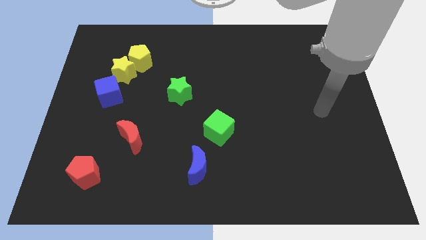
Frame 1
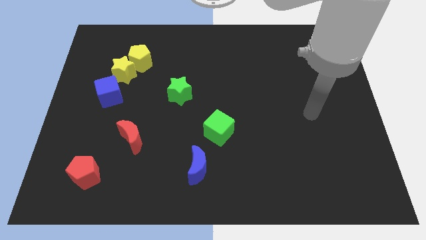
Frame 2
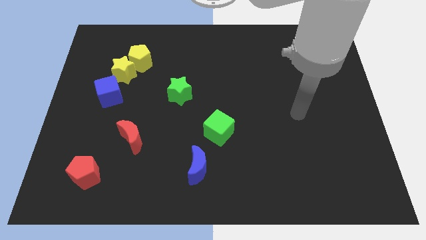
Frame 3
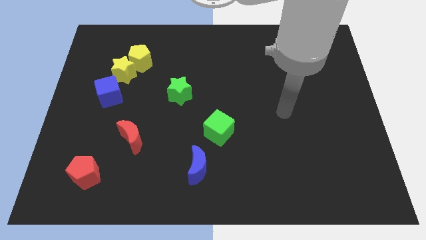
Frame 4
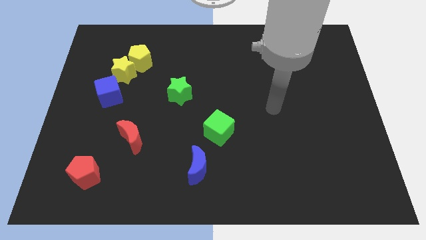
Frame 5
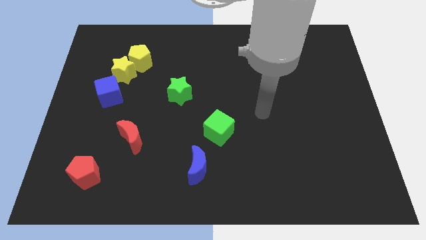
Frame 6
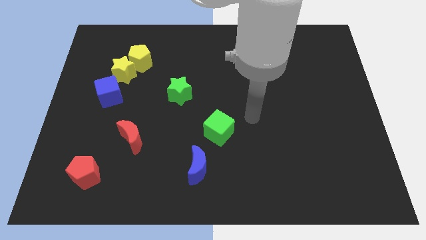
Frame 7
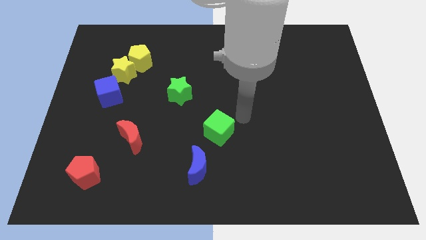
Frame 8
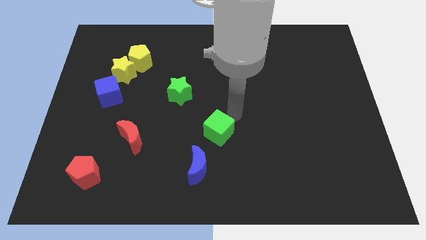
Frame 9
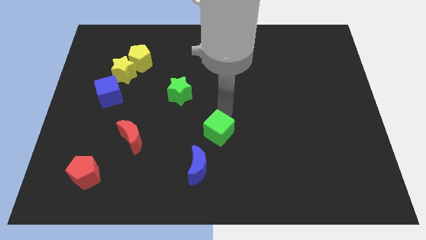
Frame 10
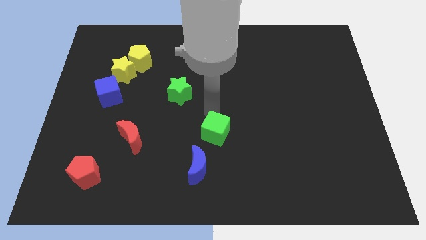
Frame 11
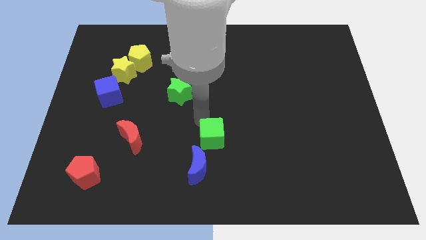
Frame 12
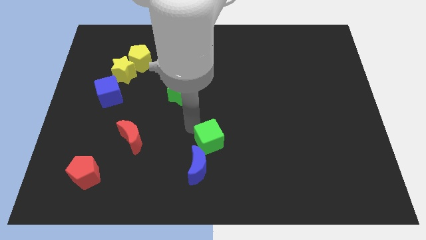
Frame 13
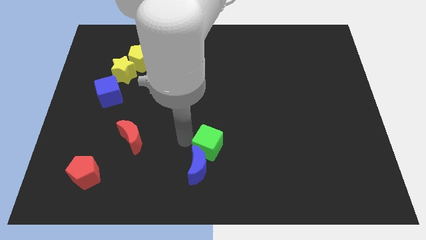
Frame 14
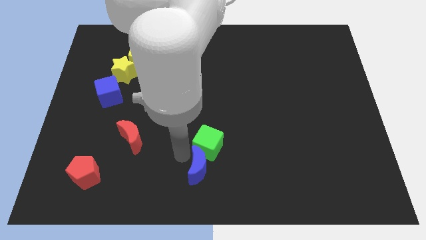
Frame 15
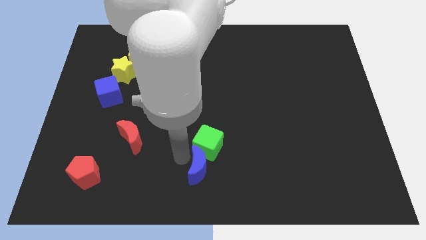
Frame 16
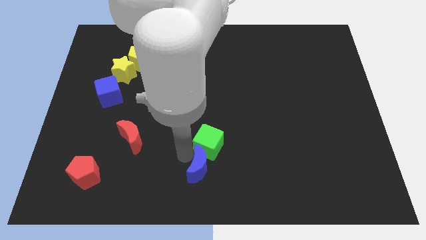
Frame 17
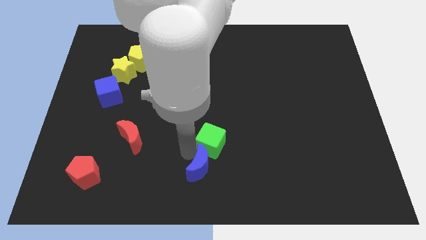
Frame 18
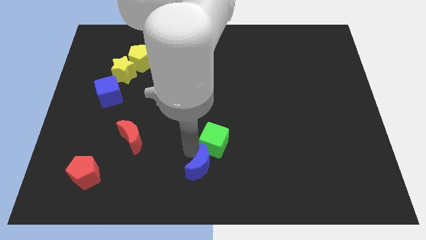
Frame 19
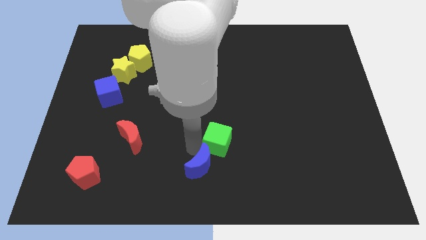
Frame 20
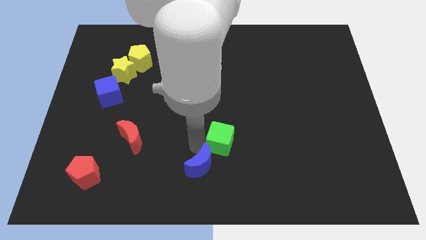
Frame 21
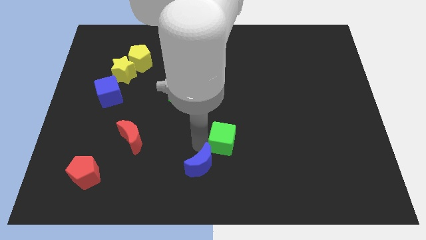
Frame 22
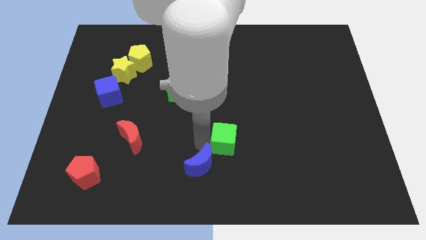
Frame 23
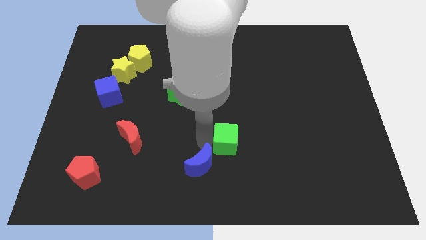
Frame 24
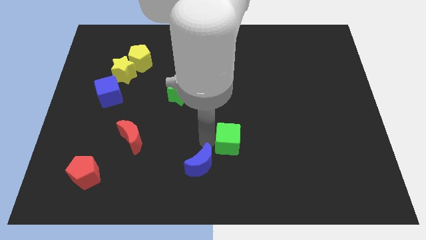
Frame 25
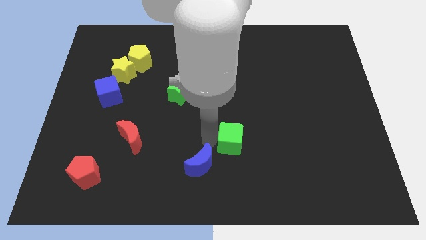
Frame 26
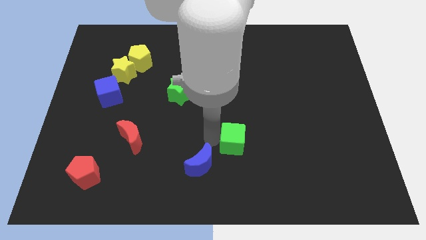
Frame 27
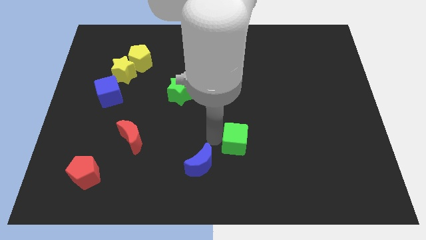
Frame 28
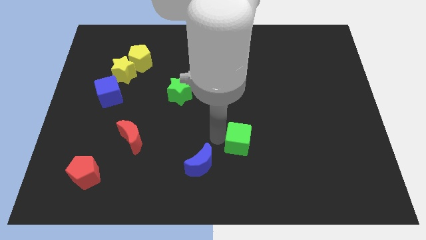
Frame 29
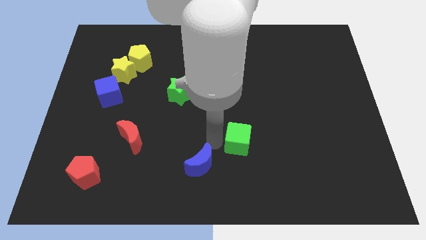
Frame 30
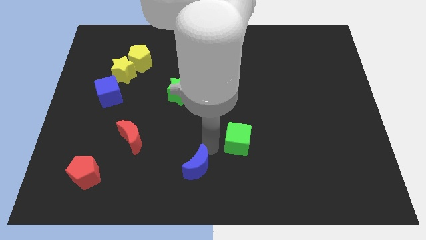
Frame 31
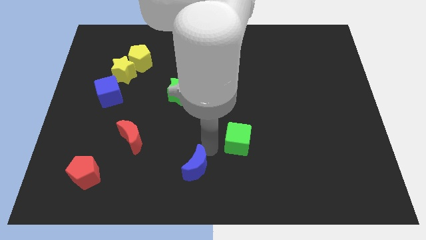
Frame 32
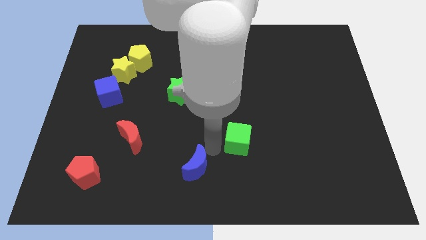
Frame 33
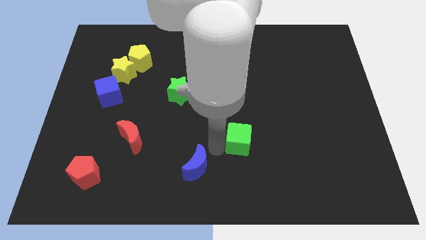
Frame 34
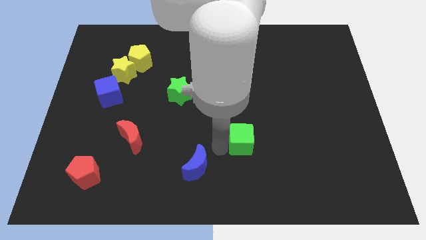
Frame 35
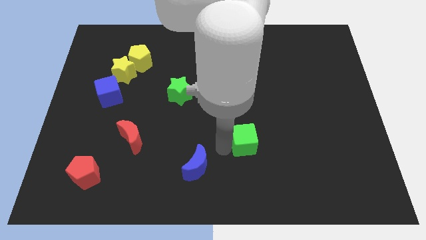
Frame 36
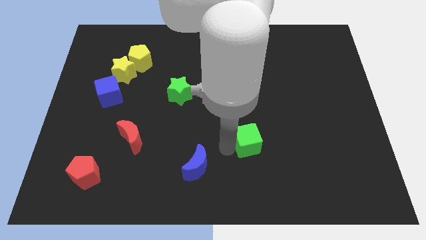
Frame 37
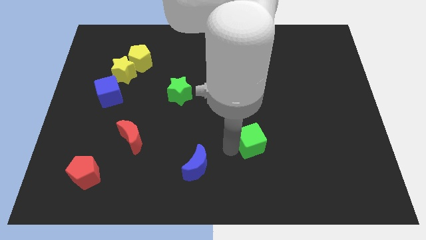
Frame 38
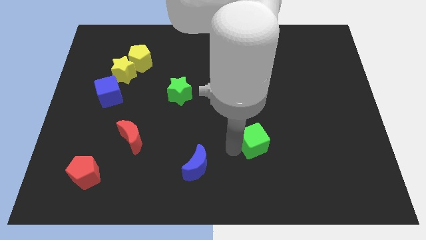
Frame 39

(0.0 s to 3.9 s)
move the green cube a bit right

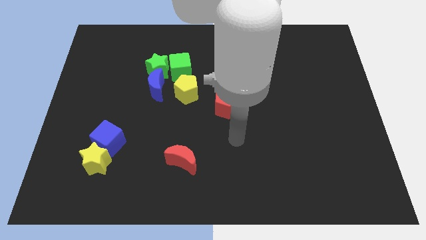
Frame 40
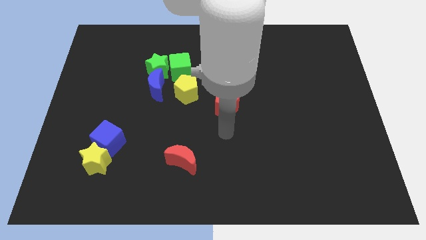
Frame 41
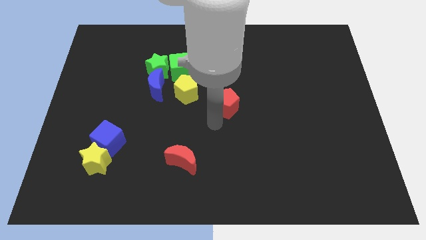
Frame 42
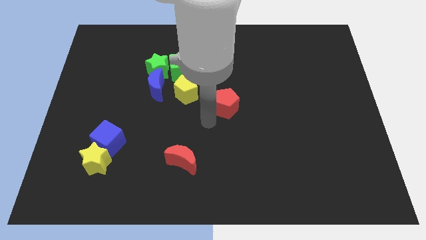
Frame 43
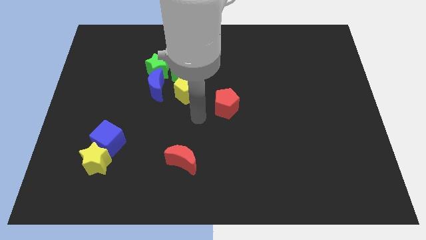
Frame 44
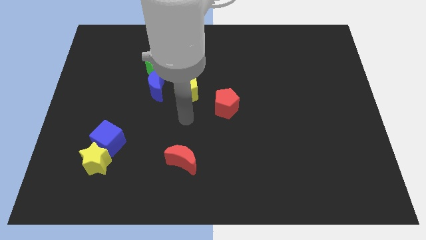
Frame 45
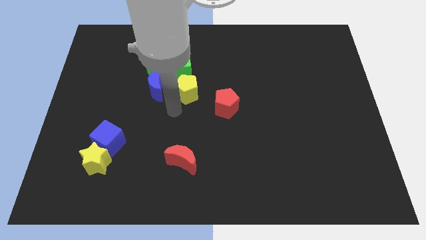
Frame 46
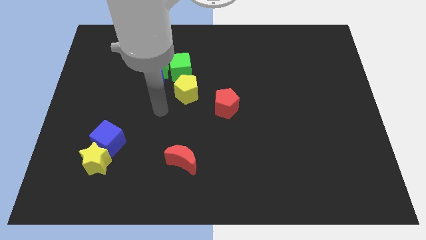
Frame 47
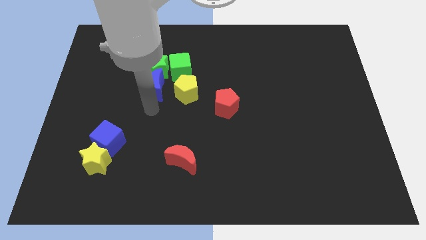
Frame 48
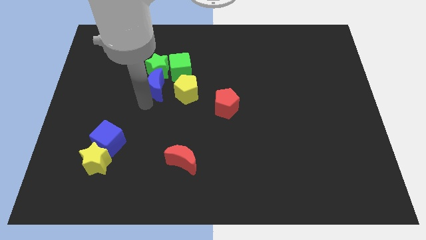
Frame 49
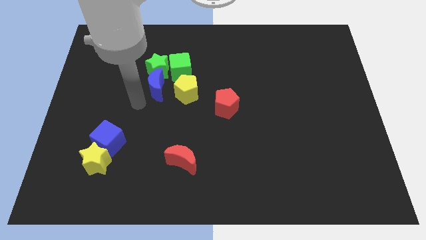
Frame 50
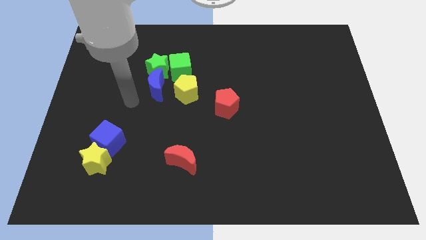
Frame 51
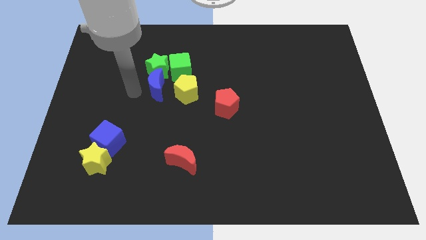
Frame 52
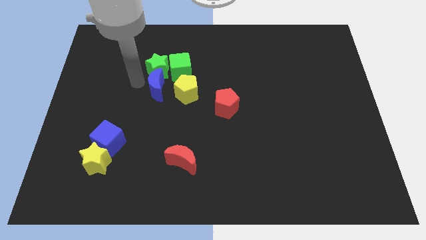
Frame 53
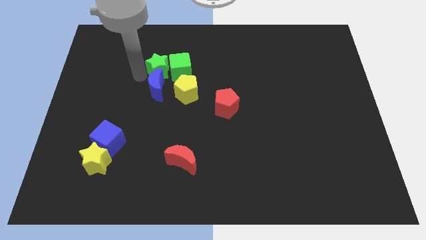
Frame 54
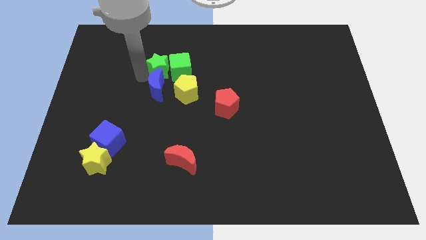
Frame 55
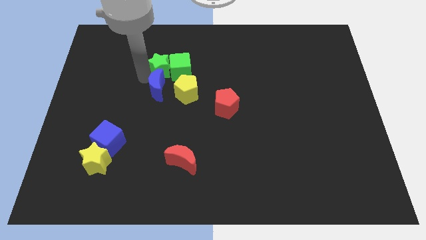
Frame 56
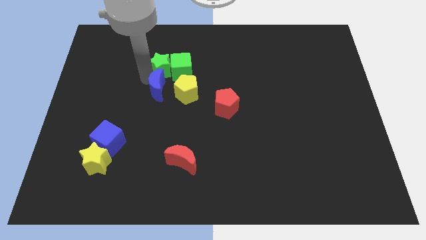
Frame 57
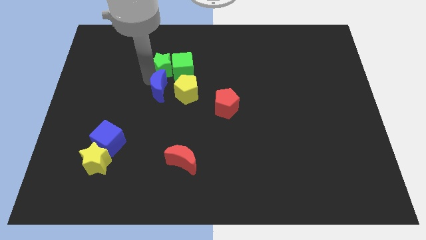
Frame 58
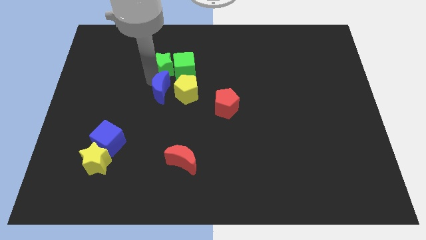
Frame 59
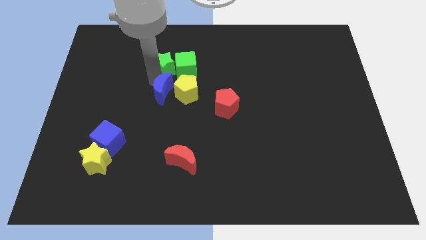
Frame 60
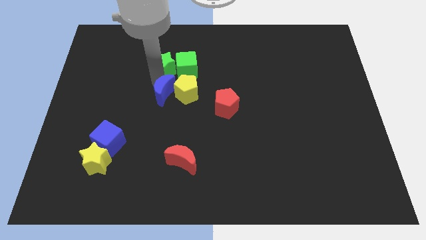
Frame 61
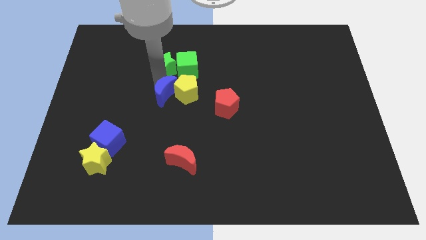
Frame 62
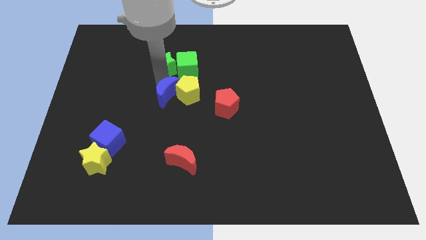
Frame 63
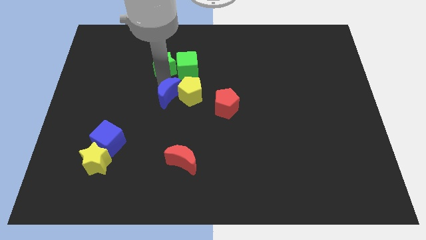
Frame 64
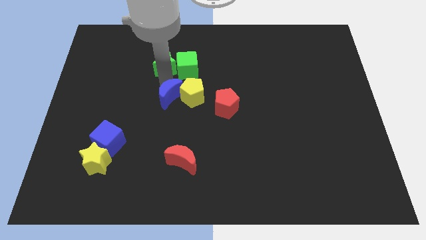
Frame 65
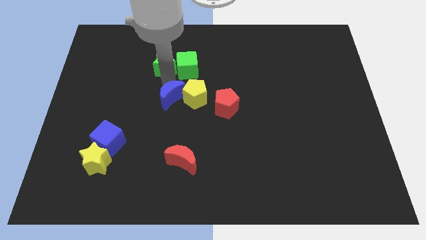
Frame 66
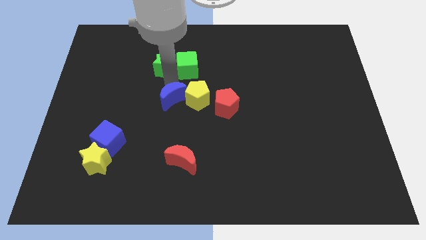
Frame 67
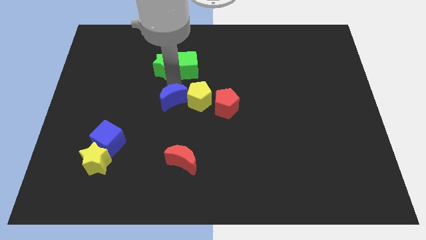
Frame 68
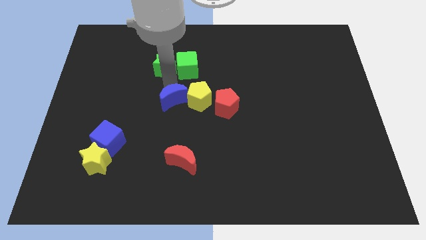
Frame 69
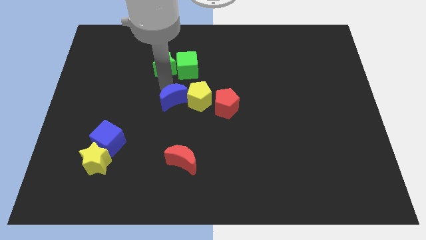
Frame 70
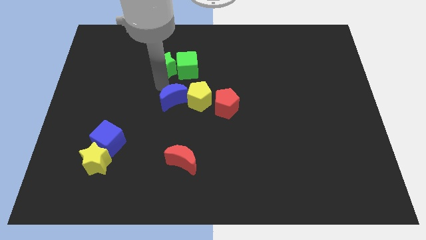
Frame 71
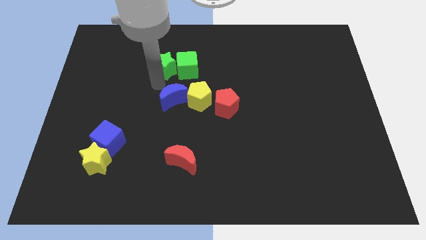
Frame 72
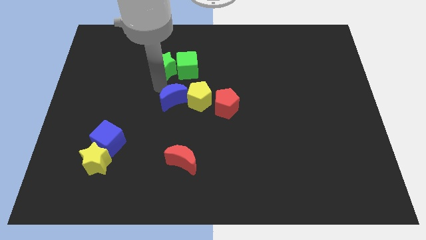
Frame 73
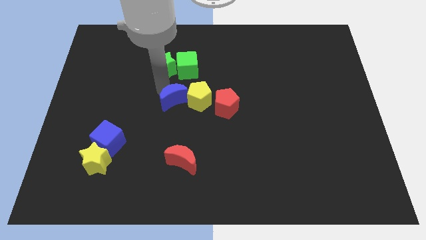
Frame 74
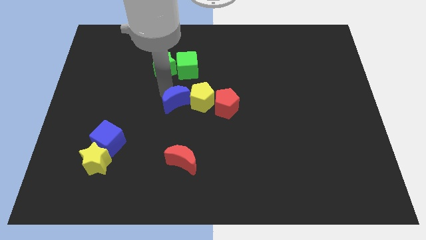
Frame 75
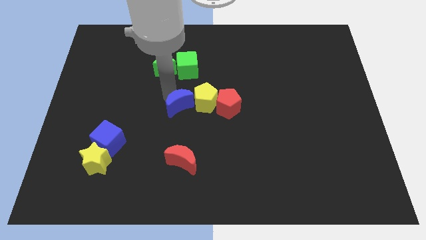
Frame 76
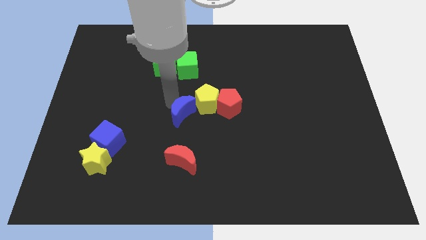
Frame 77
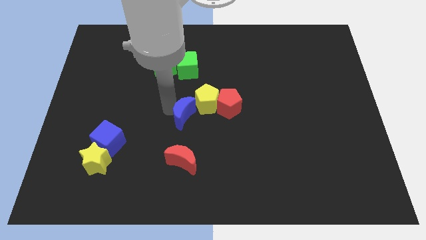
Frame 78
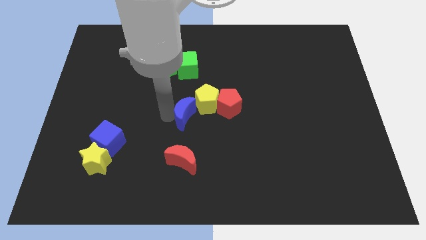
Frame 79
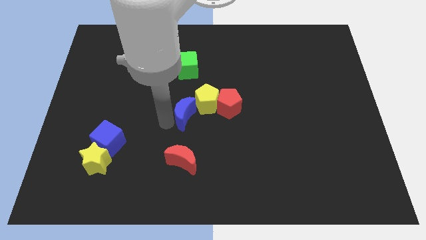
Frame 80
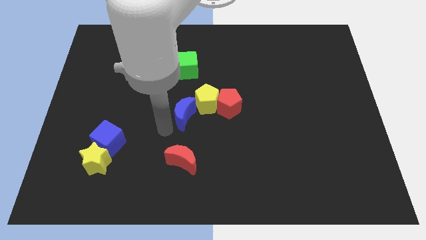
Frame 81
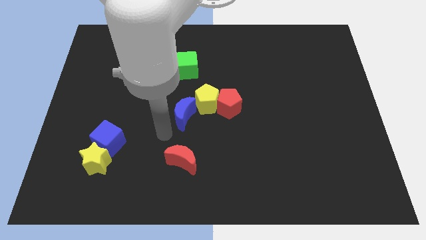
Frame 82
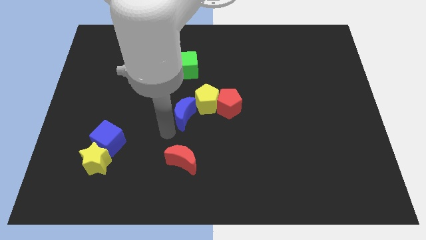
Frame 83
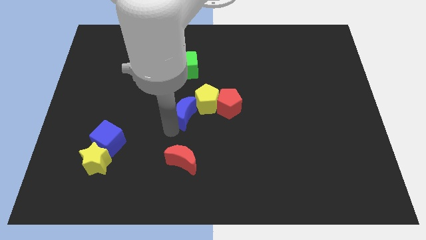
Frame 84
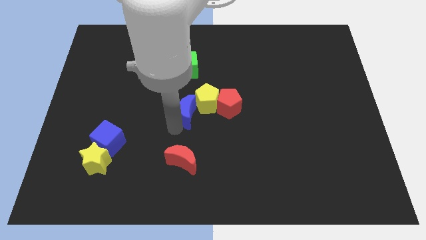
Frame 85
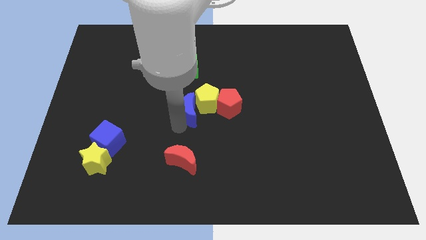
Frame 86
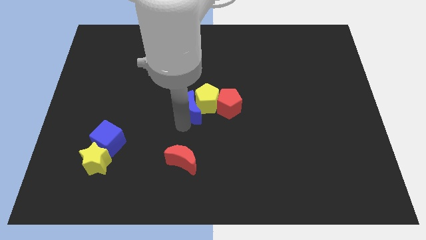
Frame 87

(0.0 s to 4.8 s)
slightly push the blue moon right
